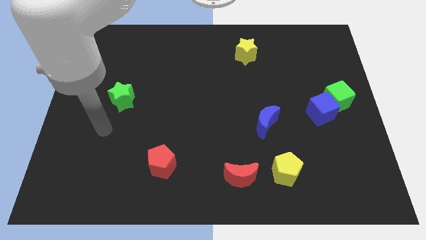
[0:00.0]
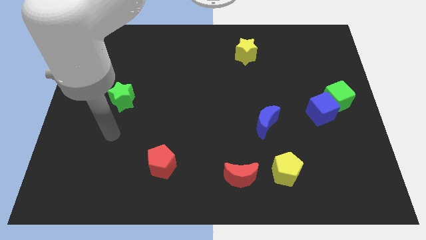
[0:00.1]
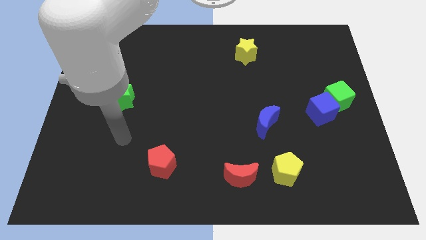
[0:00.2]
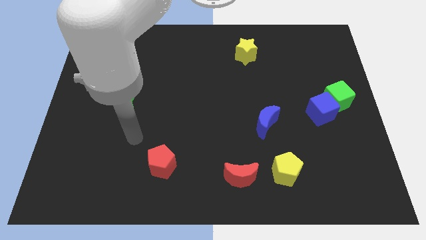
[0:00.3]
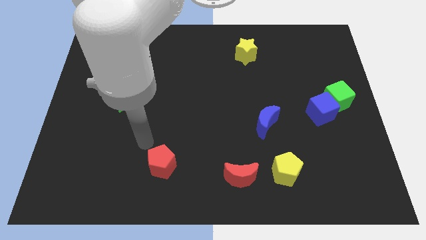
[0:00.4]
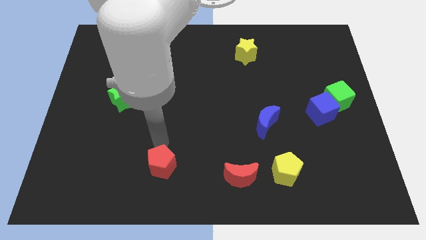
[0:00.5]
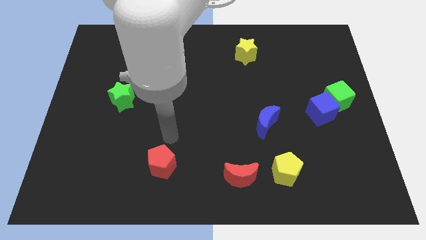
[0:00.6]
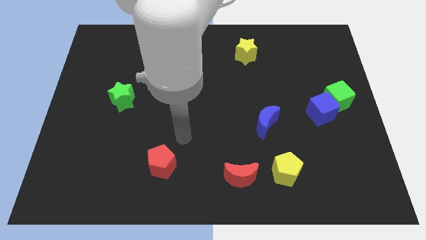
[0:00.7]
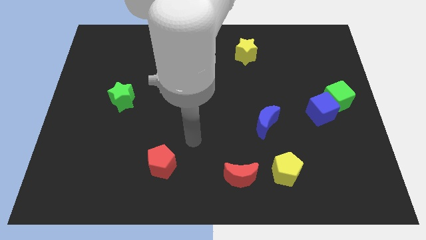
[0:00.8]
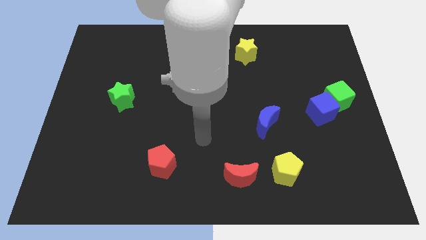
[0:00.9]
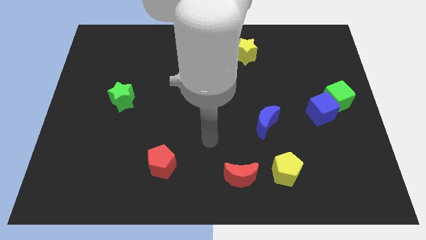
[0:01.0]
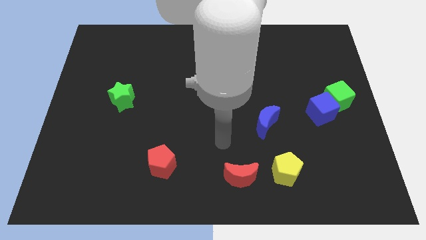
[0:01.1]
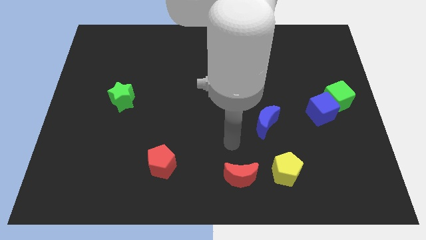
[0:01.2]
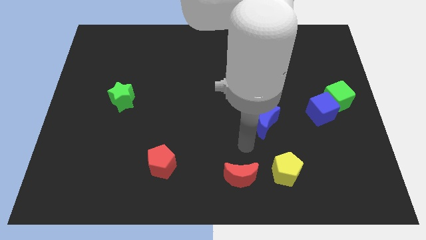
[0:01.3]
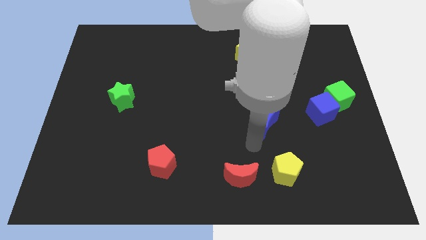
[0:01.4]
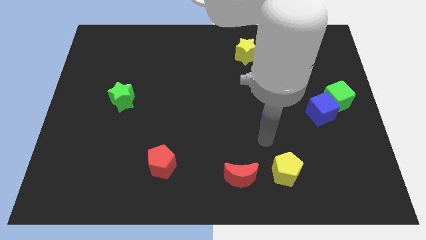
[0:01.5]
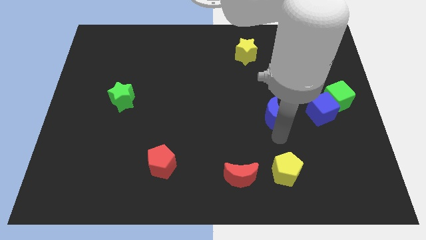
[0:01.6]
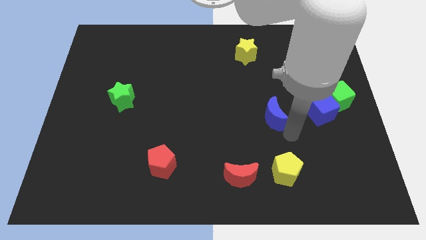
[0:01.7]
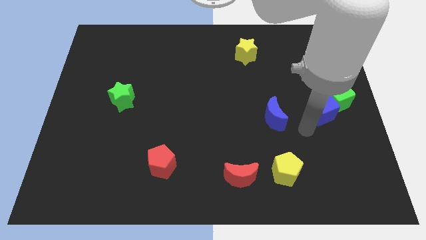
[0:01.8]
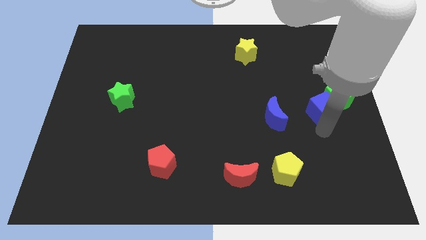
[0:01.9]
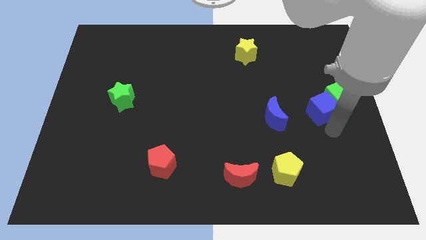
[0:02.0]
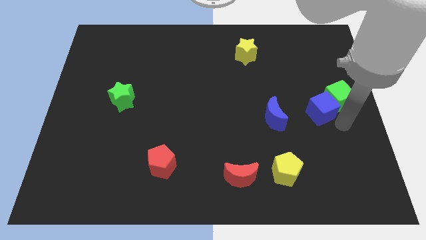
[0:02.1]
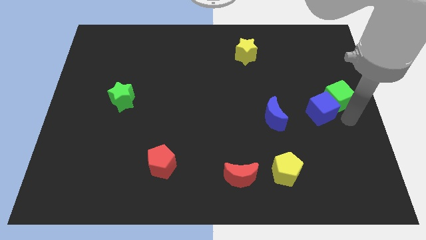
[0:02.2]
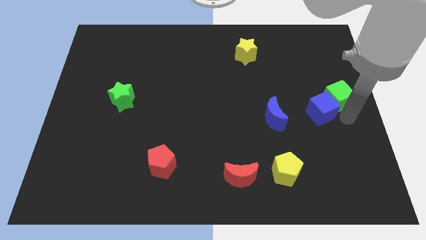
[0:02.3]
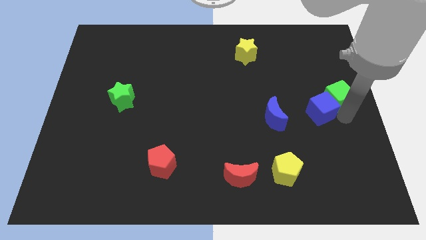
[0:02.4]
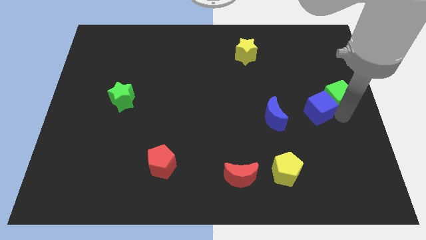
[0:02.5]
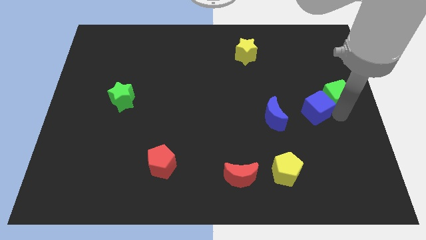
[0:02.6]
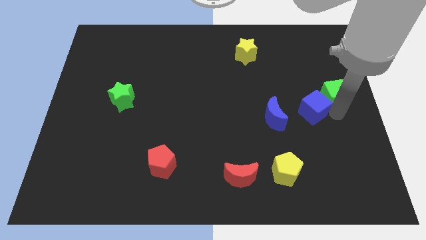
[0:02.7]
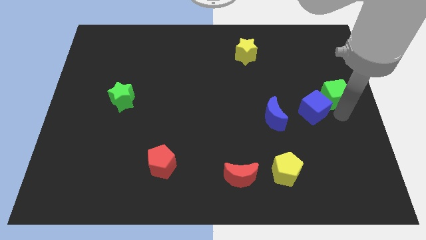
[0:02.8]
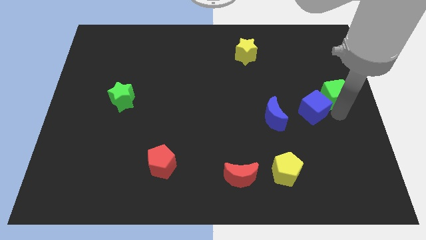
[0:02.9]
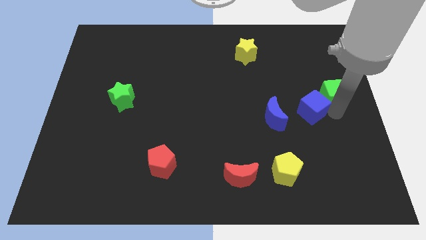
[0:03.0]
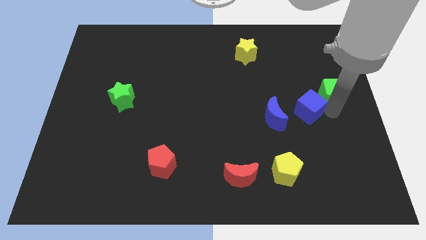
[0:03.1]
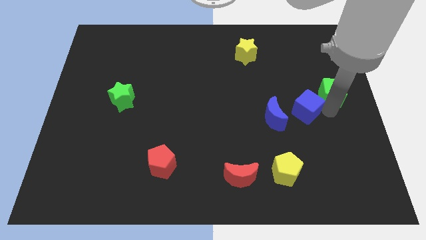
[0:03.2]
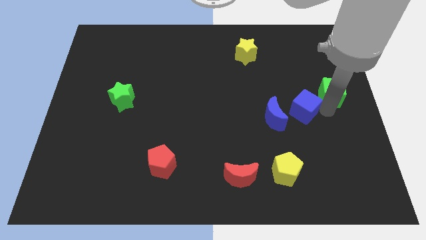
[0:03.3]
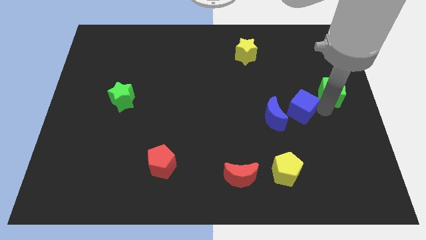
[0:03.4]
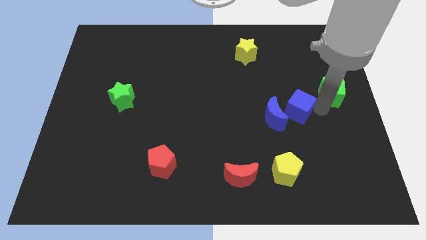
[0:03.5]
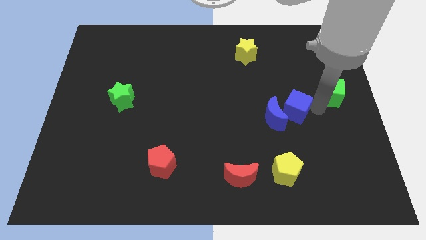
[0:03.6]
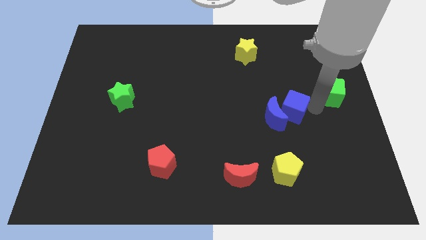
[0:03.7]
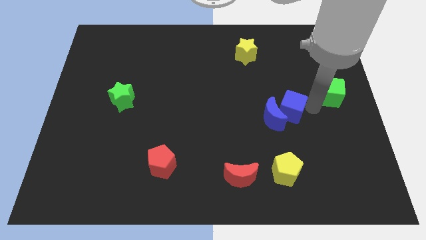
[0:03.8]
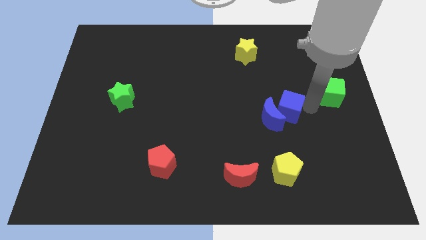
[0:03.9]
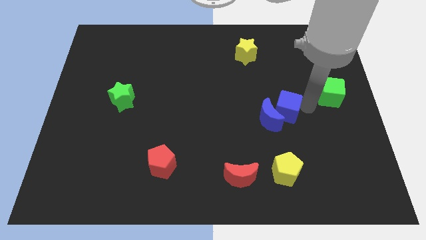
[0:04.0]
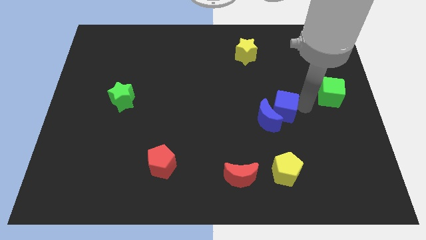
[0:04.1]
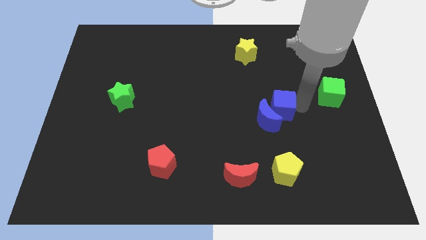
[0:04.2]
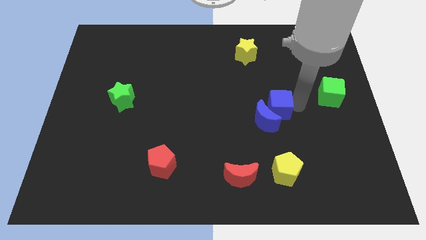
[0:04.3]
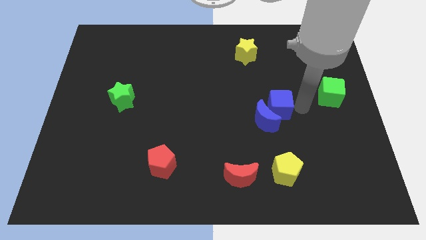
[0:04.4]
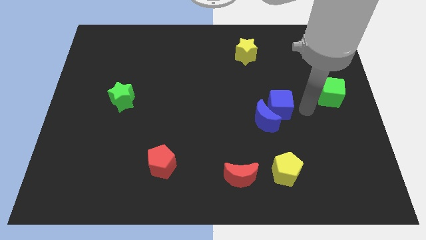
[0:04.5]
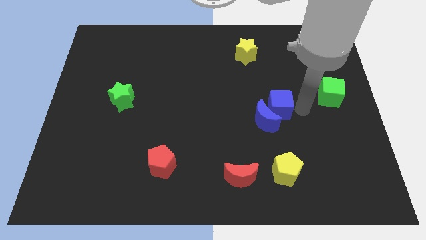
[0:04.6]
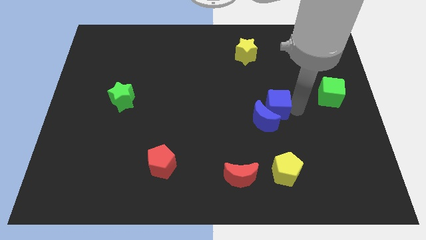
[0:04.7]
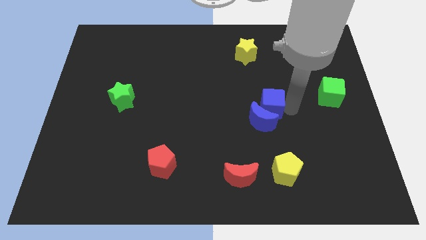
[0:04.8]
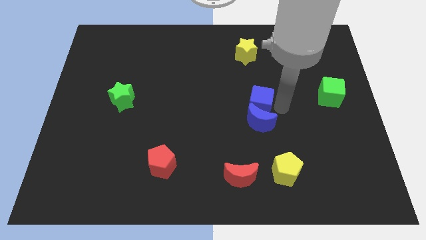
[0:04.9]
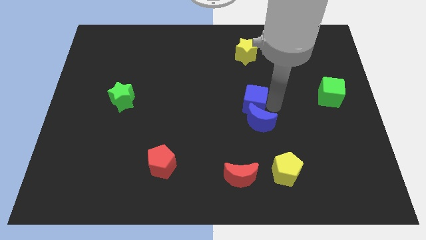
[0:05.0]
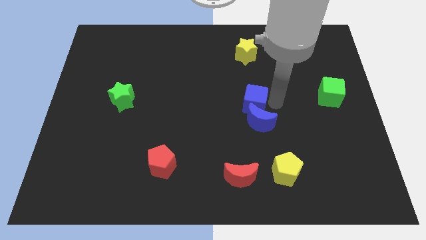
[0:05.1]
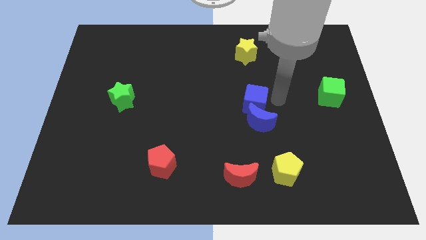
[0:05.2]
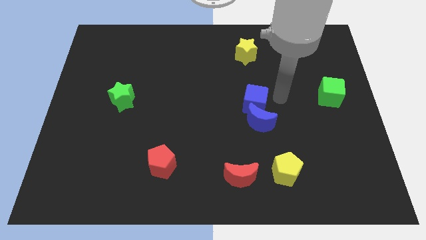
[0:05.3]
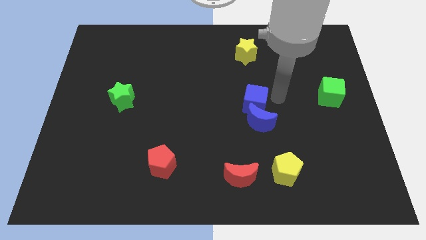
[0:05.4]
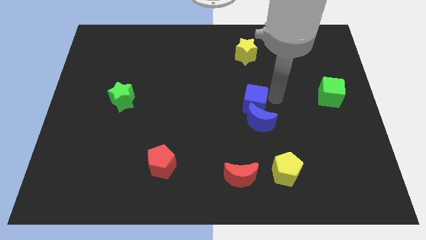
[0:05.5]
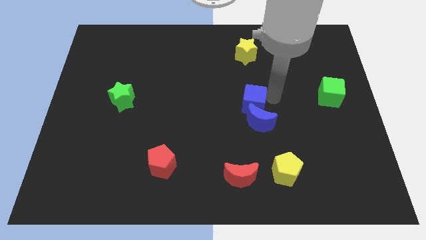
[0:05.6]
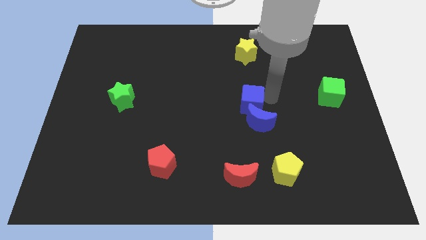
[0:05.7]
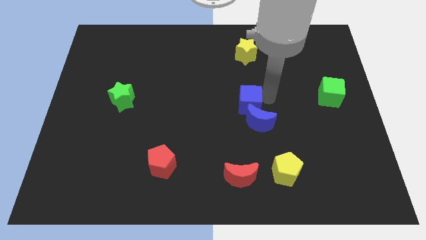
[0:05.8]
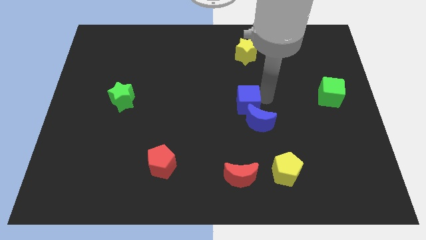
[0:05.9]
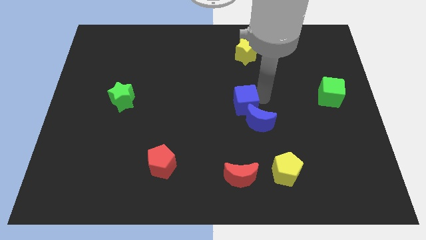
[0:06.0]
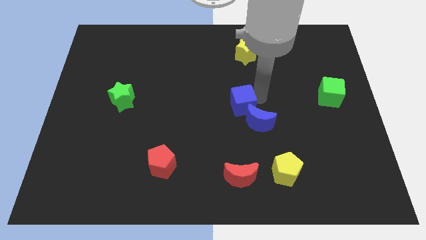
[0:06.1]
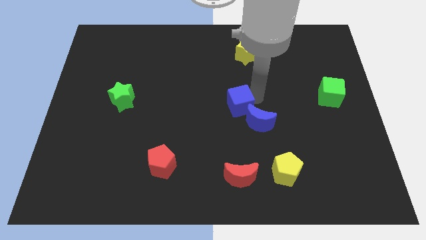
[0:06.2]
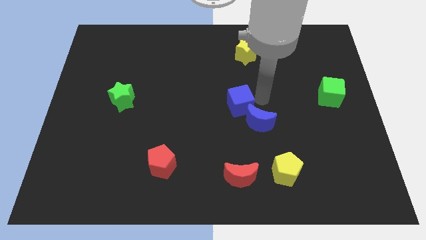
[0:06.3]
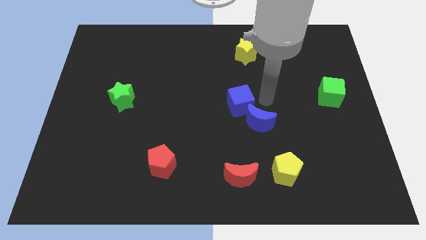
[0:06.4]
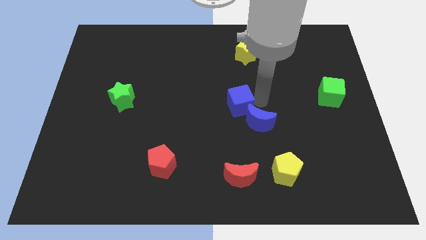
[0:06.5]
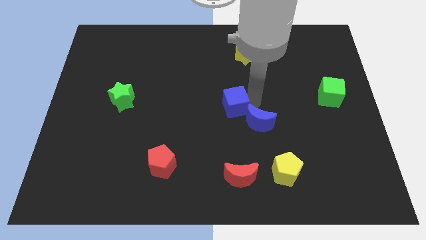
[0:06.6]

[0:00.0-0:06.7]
move the blue cube to the left

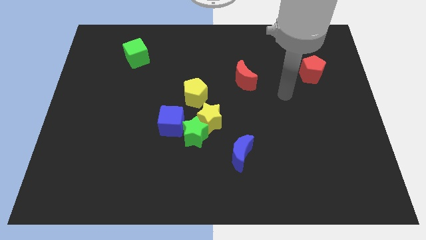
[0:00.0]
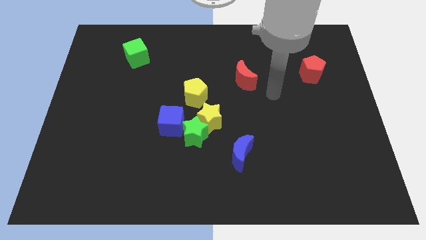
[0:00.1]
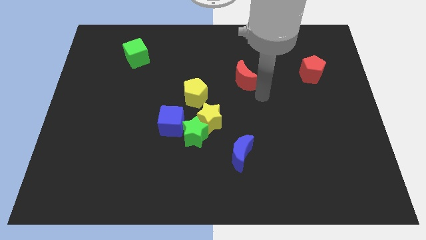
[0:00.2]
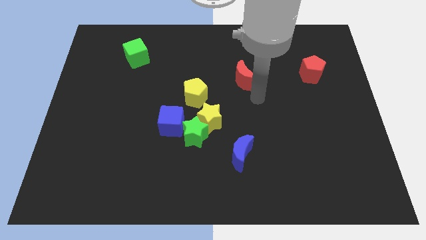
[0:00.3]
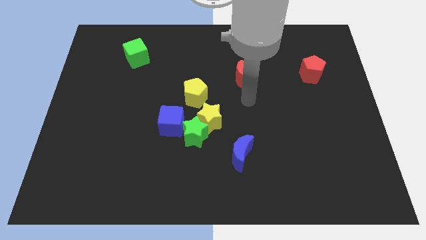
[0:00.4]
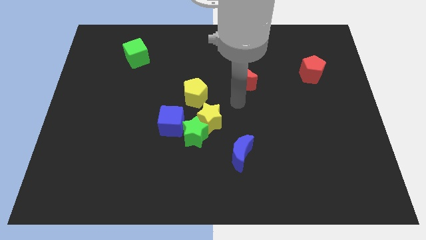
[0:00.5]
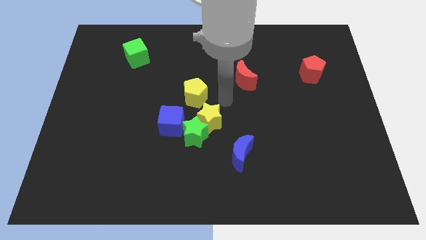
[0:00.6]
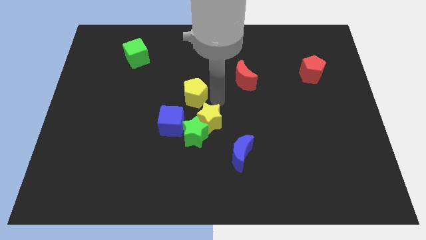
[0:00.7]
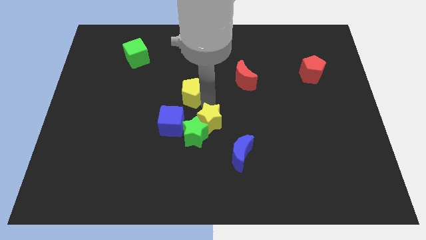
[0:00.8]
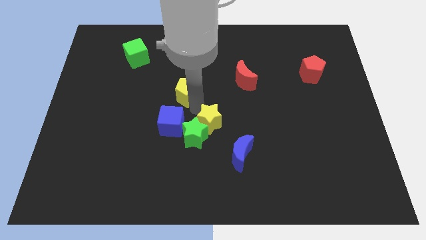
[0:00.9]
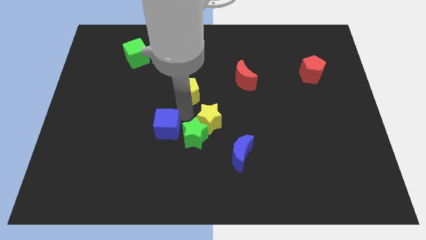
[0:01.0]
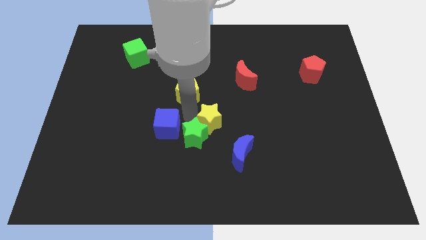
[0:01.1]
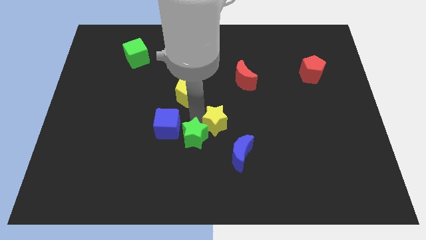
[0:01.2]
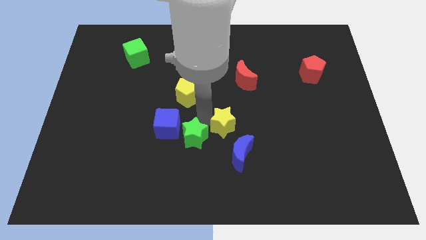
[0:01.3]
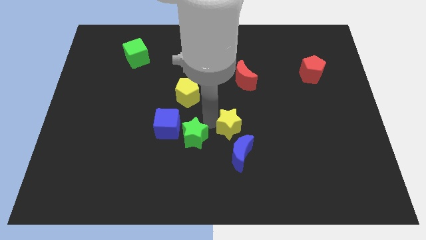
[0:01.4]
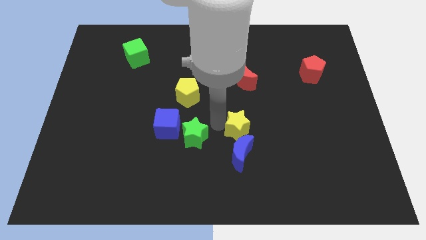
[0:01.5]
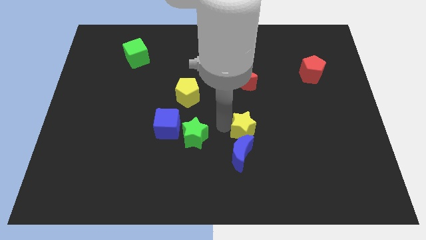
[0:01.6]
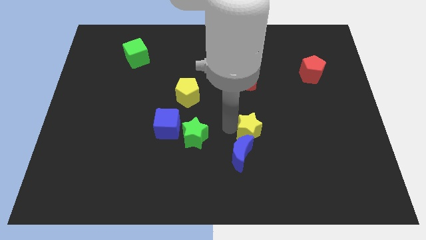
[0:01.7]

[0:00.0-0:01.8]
move the yellow star a bit down and to the right
